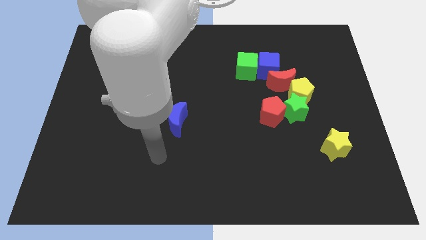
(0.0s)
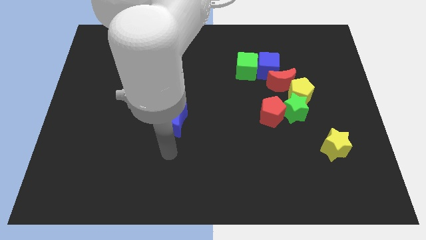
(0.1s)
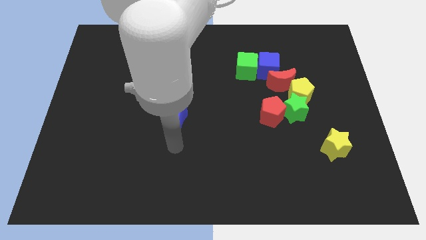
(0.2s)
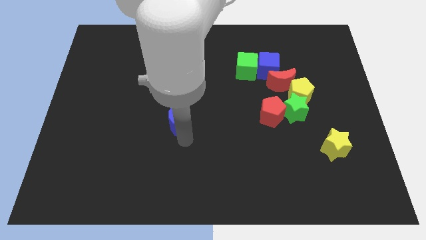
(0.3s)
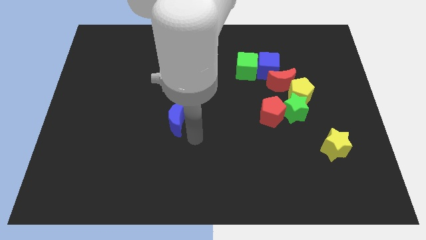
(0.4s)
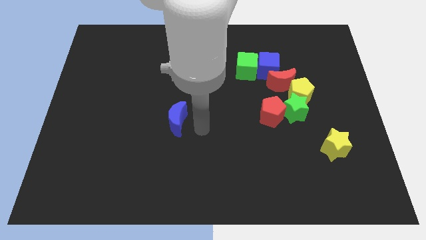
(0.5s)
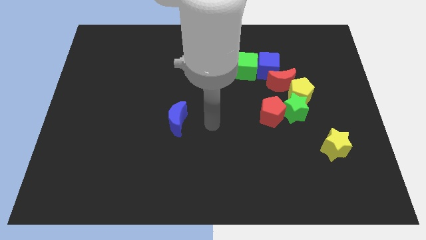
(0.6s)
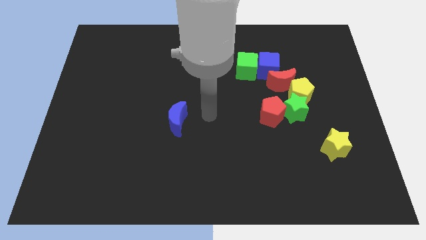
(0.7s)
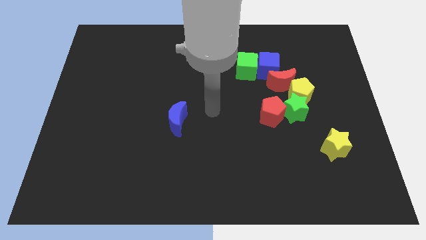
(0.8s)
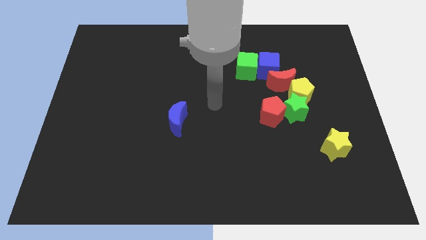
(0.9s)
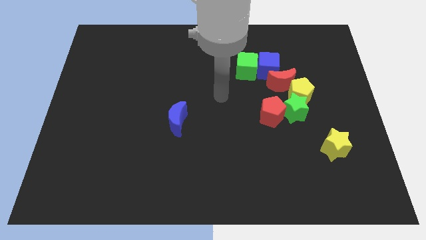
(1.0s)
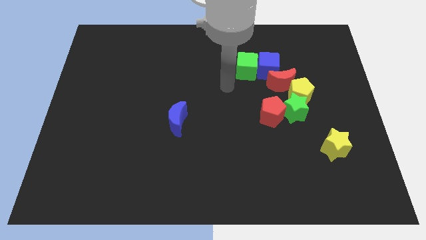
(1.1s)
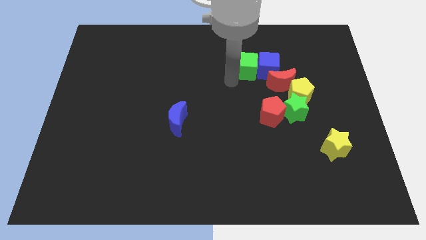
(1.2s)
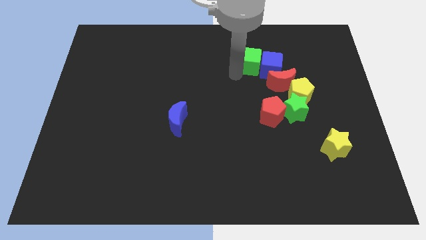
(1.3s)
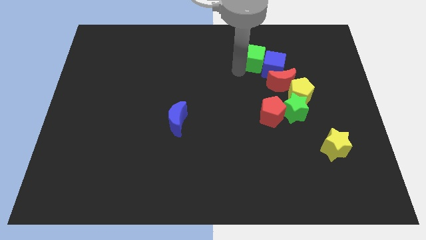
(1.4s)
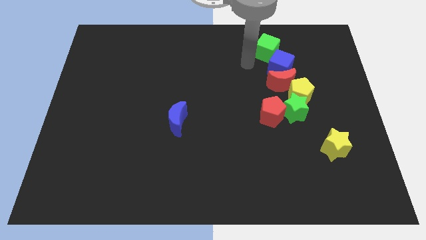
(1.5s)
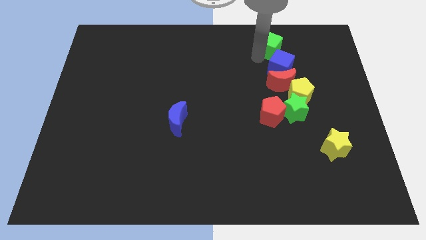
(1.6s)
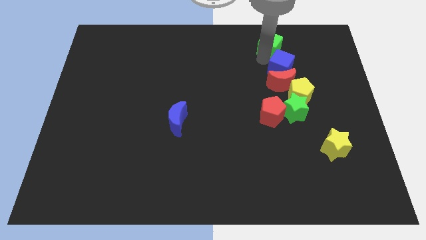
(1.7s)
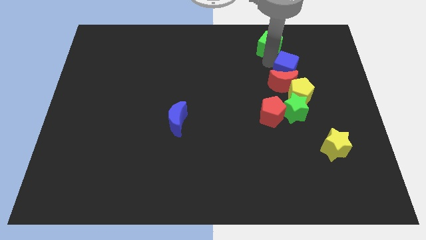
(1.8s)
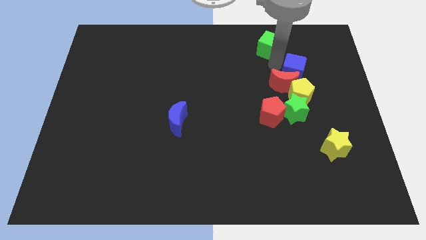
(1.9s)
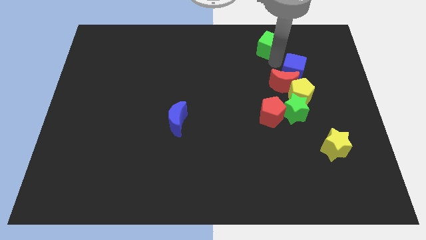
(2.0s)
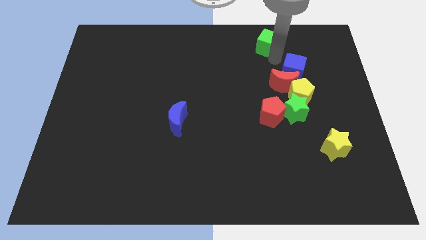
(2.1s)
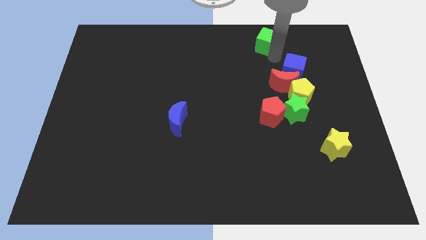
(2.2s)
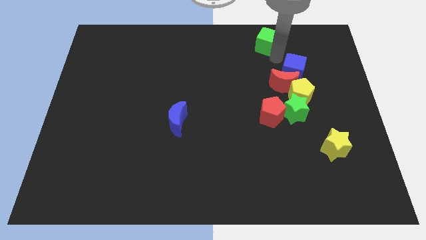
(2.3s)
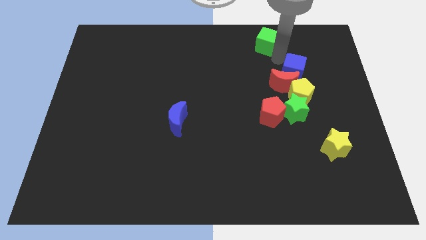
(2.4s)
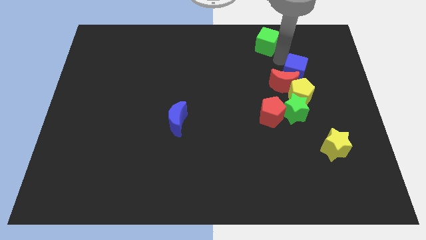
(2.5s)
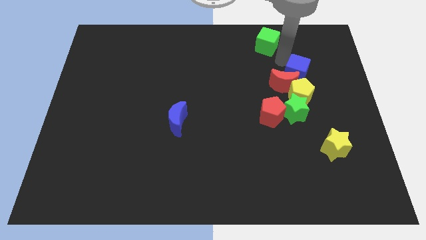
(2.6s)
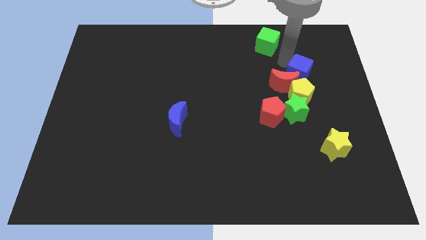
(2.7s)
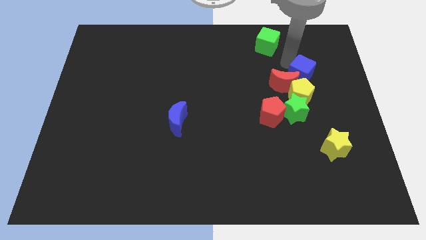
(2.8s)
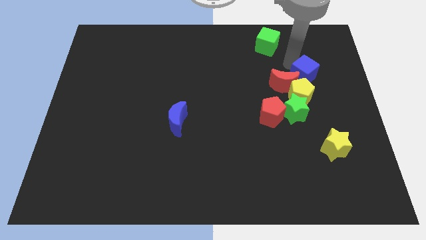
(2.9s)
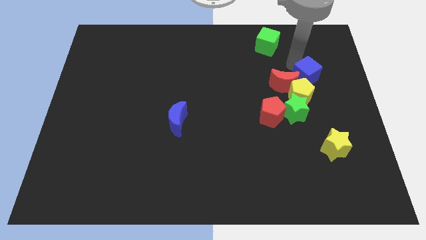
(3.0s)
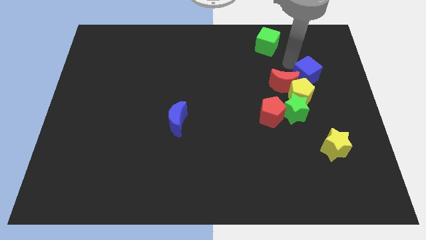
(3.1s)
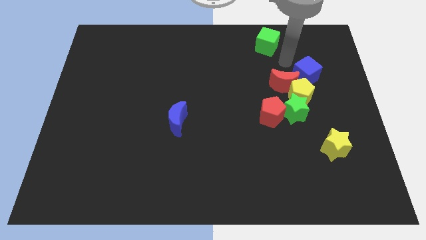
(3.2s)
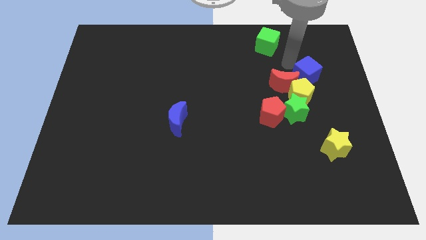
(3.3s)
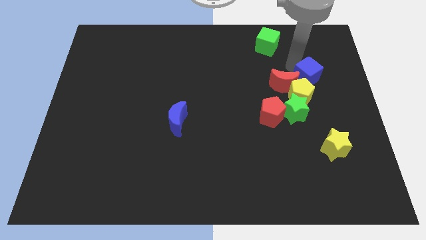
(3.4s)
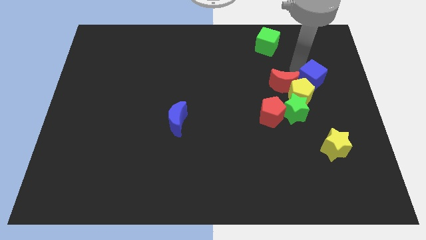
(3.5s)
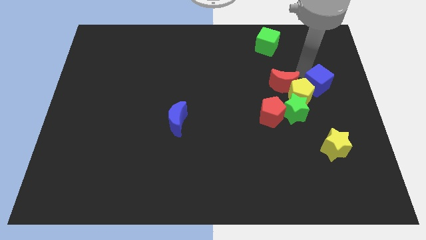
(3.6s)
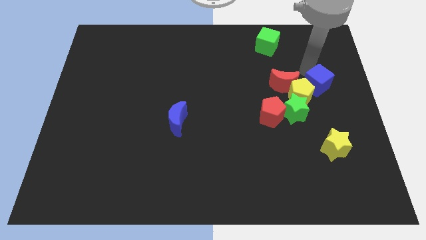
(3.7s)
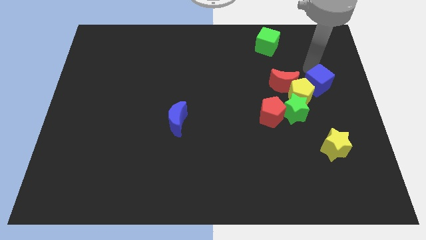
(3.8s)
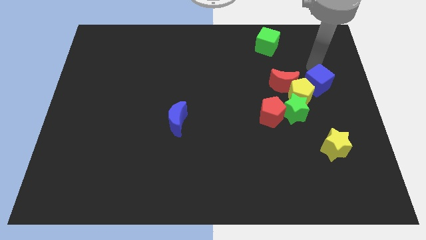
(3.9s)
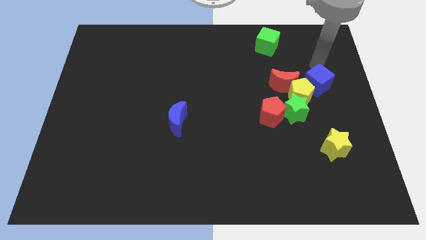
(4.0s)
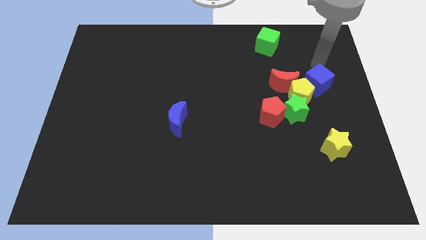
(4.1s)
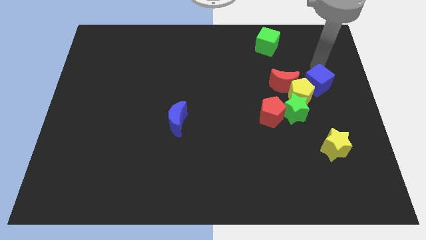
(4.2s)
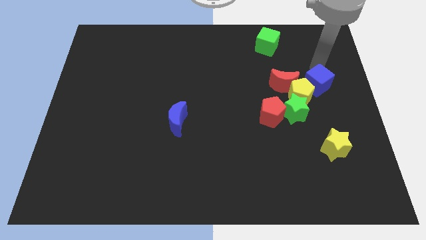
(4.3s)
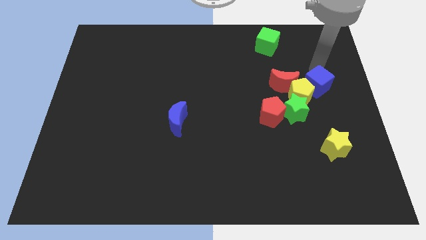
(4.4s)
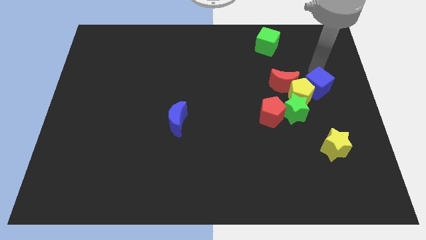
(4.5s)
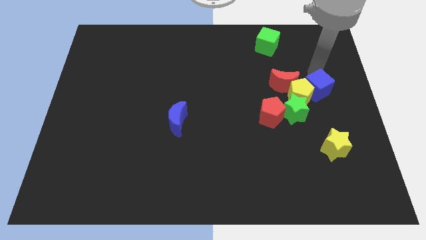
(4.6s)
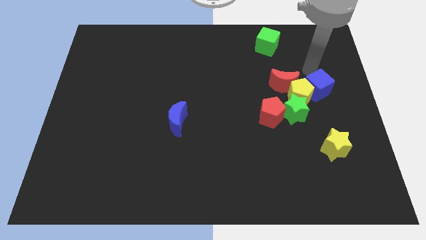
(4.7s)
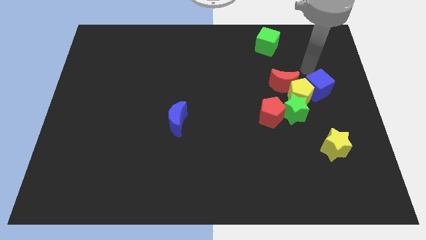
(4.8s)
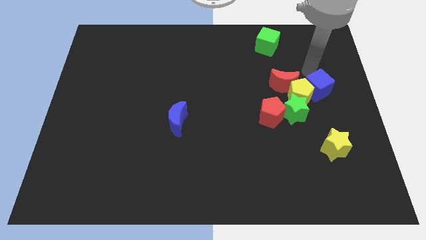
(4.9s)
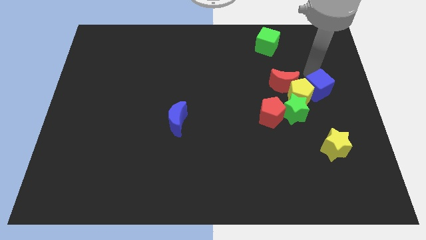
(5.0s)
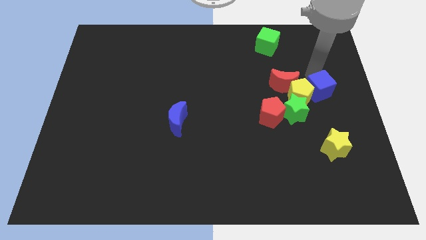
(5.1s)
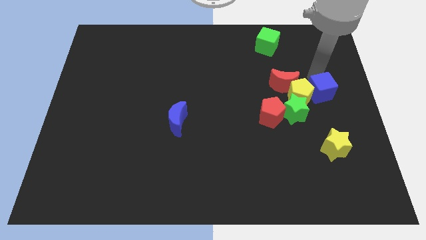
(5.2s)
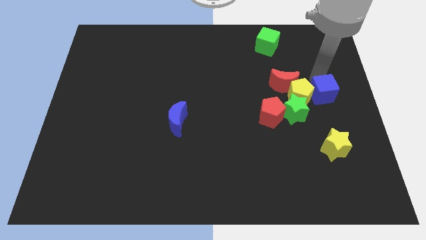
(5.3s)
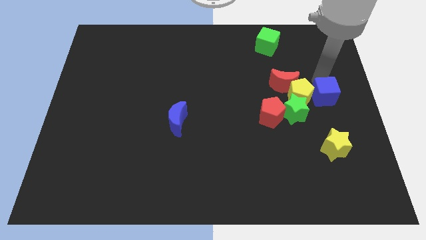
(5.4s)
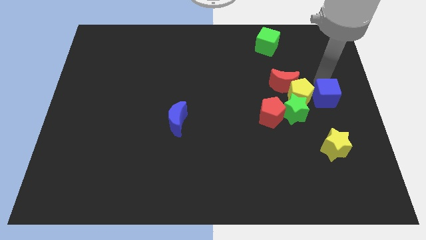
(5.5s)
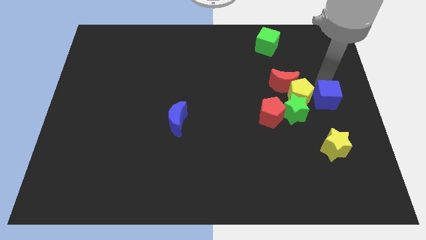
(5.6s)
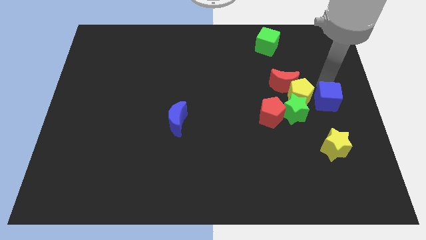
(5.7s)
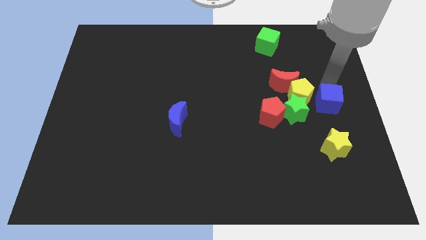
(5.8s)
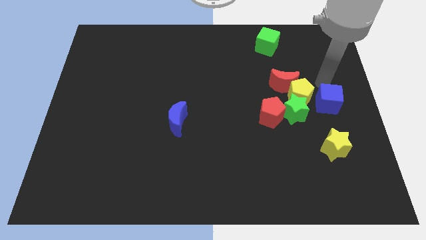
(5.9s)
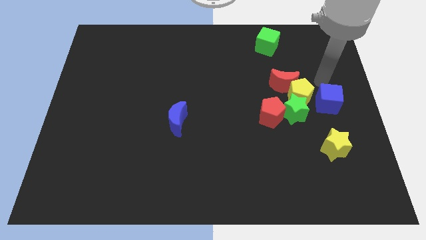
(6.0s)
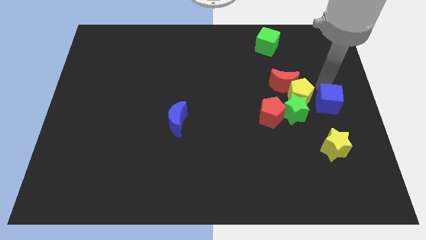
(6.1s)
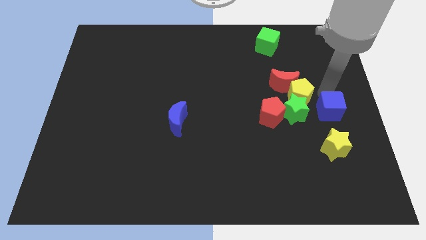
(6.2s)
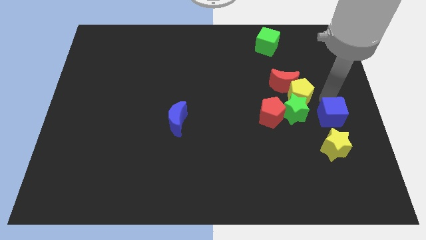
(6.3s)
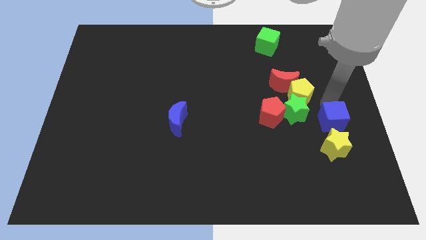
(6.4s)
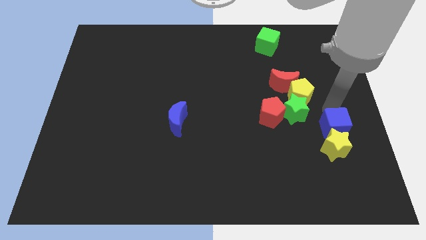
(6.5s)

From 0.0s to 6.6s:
push the blue cube close to the yellow star

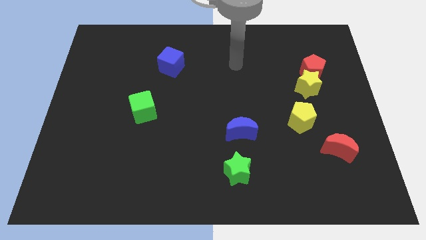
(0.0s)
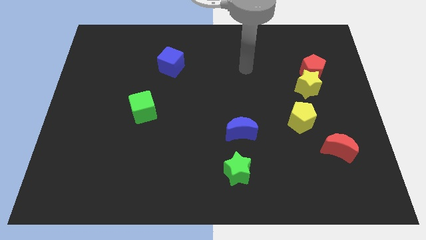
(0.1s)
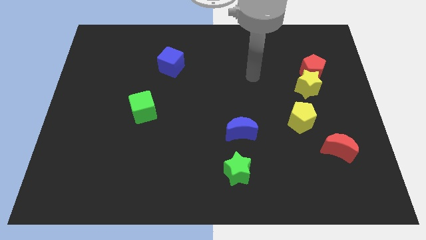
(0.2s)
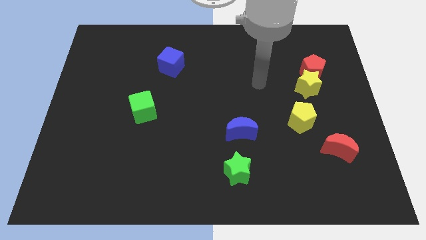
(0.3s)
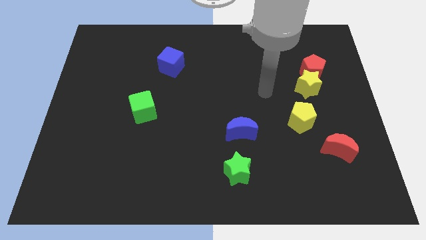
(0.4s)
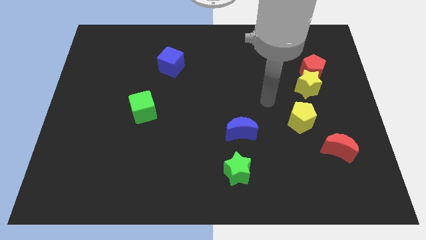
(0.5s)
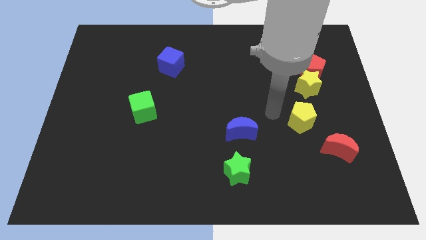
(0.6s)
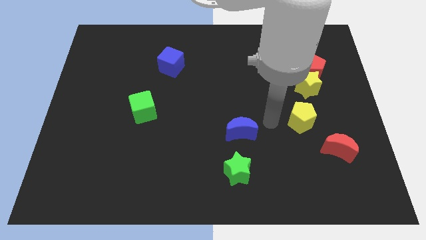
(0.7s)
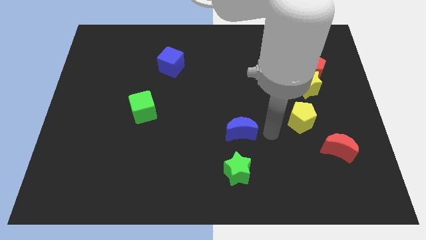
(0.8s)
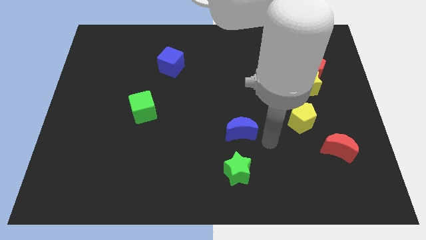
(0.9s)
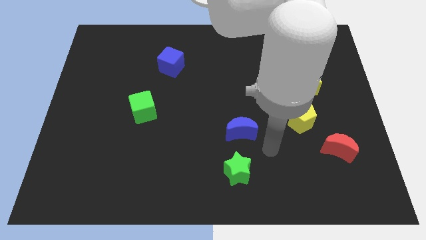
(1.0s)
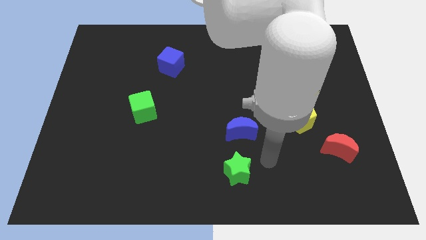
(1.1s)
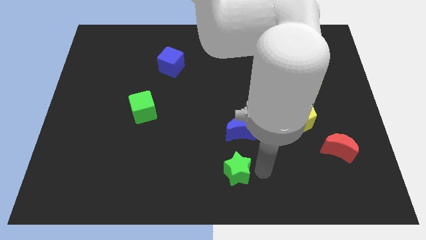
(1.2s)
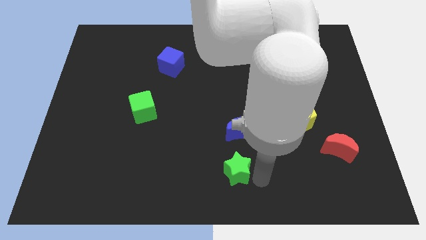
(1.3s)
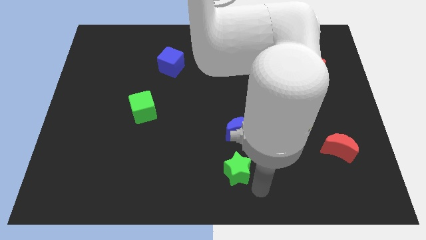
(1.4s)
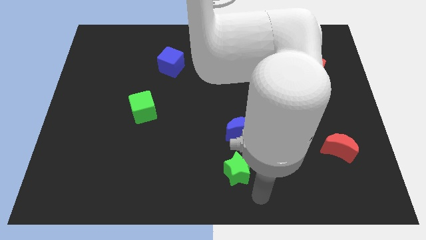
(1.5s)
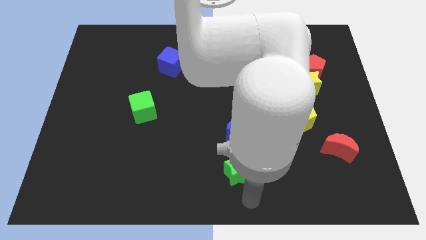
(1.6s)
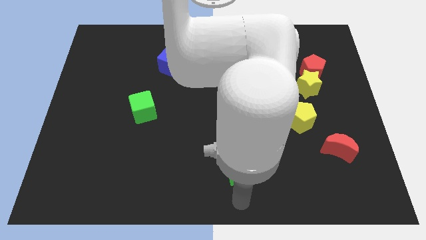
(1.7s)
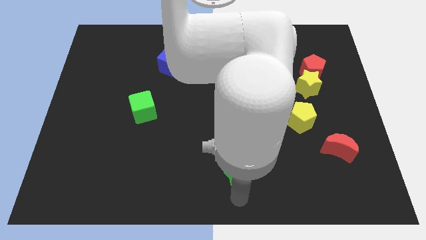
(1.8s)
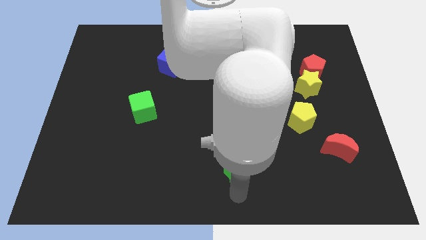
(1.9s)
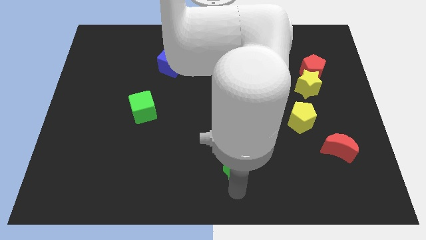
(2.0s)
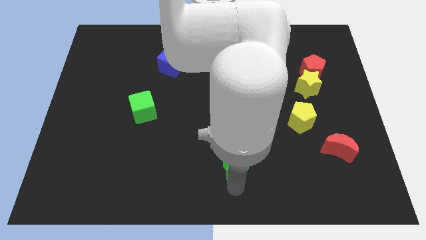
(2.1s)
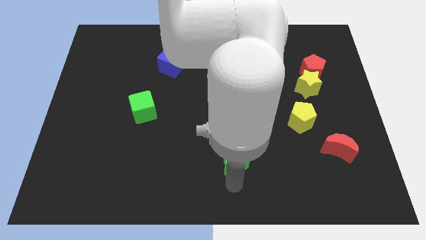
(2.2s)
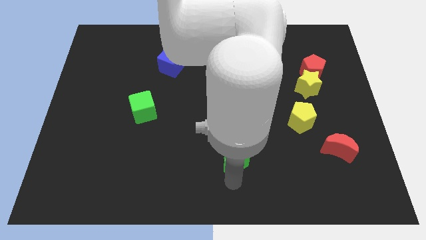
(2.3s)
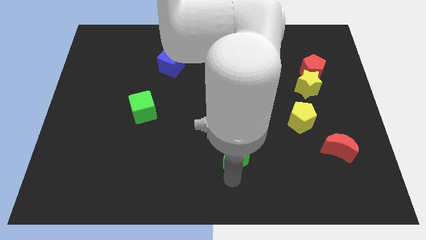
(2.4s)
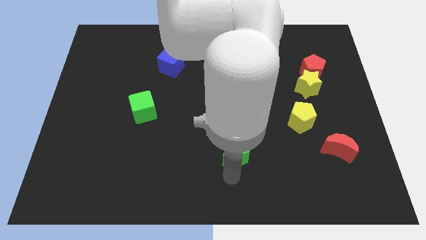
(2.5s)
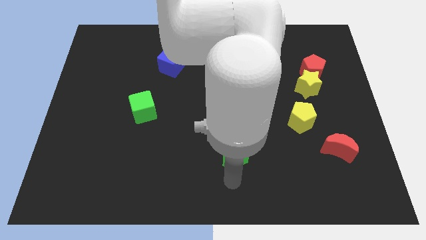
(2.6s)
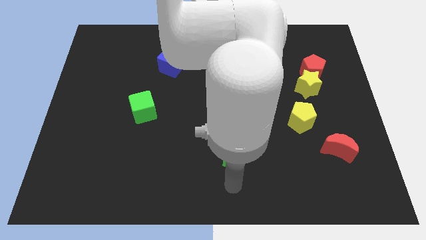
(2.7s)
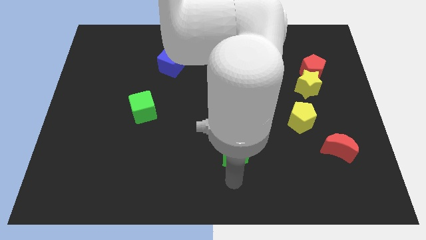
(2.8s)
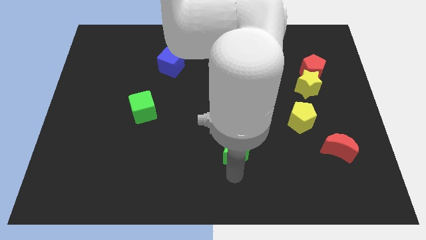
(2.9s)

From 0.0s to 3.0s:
push the green star next to the blue moon
